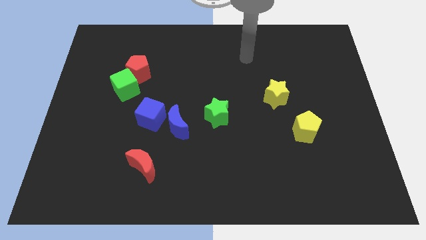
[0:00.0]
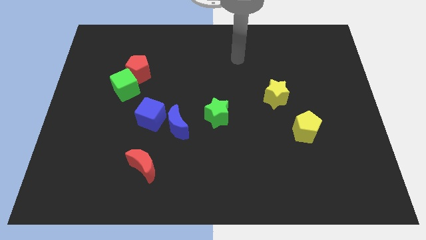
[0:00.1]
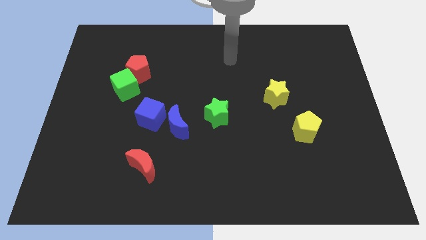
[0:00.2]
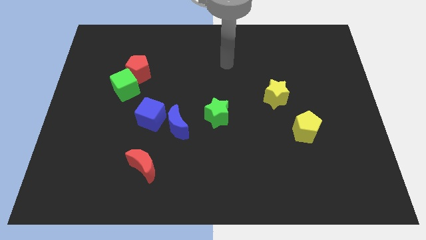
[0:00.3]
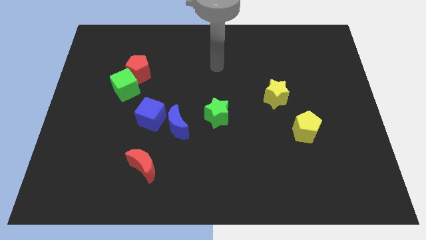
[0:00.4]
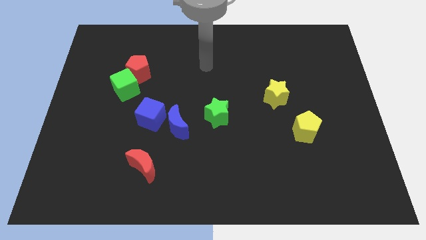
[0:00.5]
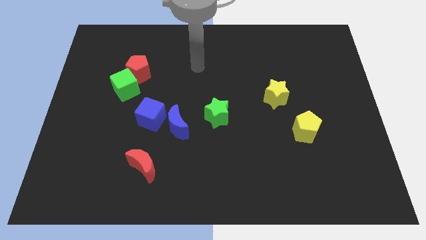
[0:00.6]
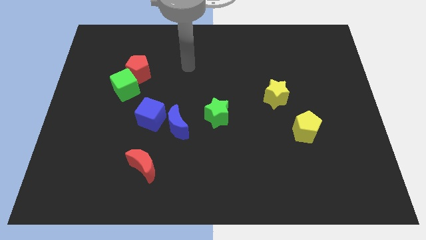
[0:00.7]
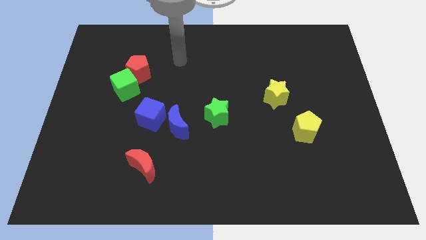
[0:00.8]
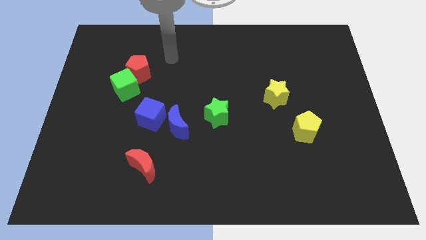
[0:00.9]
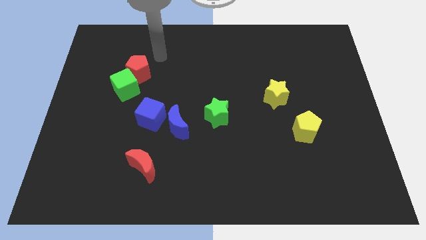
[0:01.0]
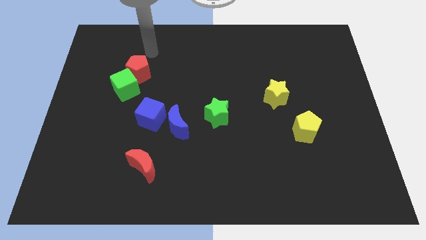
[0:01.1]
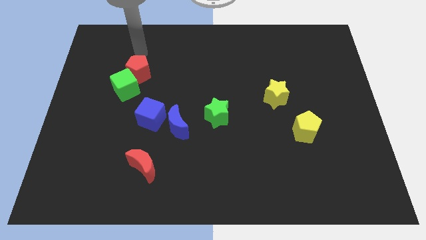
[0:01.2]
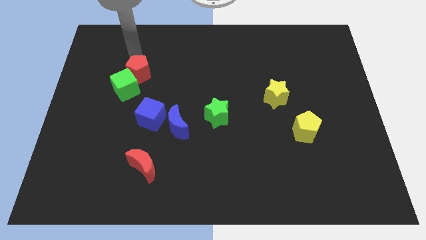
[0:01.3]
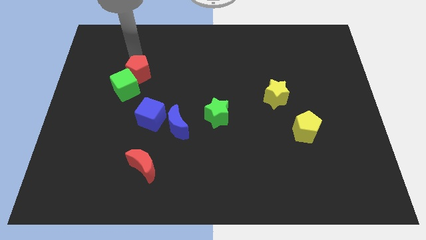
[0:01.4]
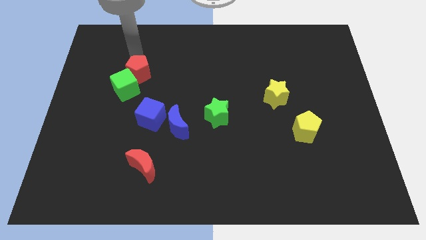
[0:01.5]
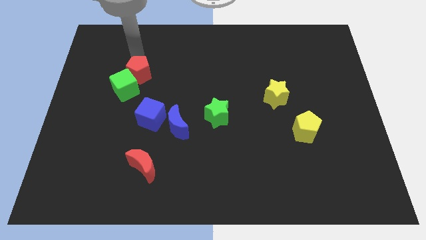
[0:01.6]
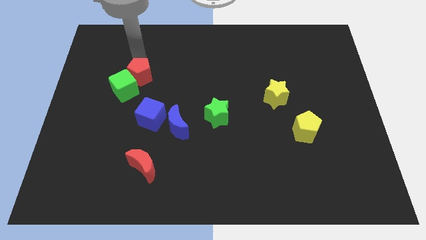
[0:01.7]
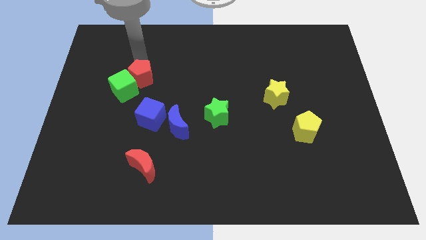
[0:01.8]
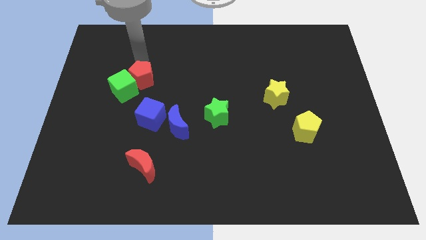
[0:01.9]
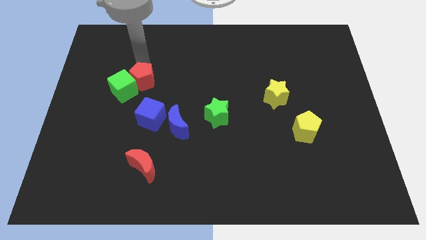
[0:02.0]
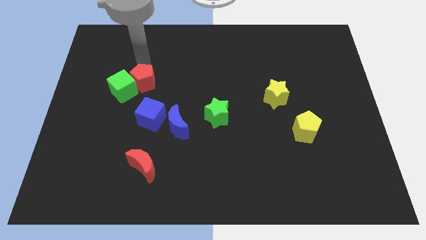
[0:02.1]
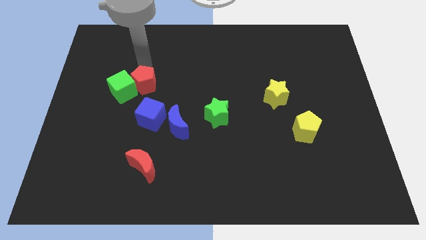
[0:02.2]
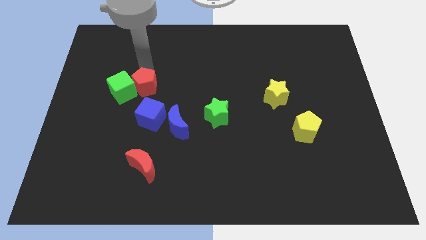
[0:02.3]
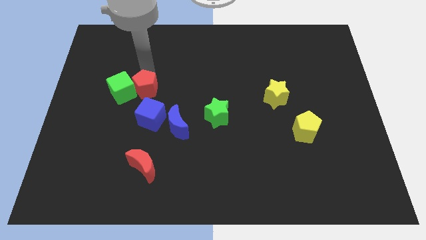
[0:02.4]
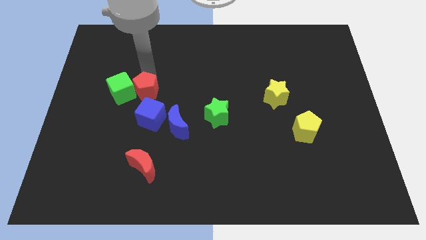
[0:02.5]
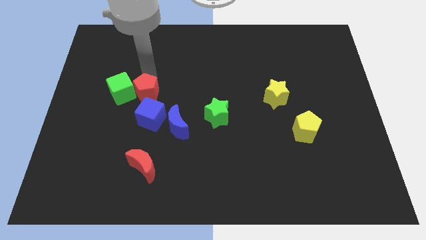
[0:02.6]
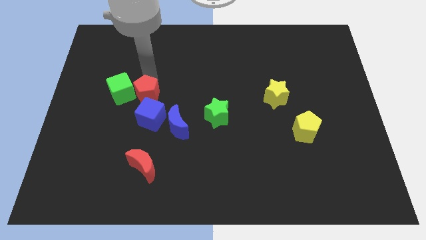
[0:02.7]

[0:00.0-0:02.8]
slightly slide the red pentagon downwards

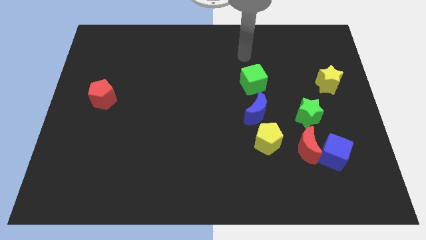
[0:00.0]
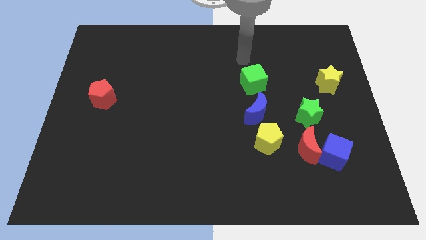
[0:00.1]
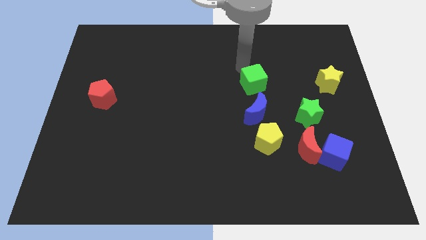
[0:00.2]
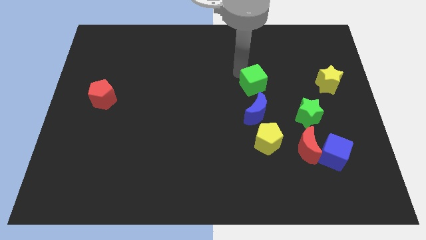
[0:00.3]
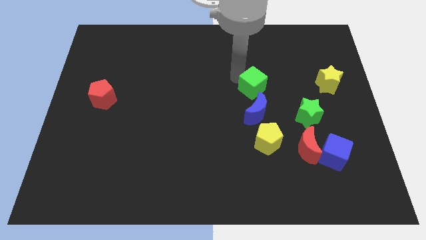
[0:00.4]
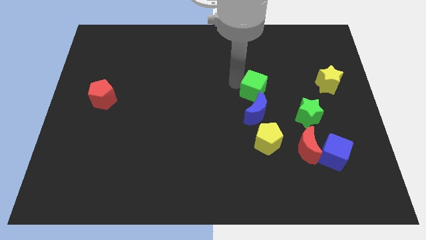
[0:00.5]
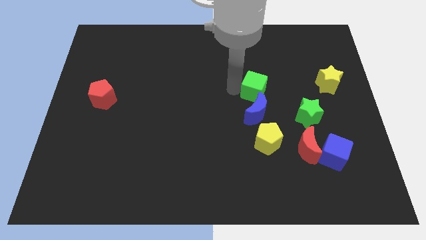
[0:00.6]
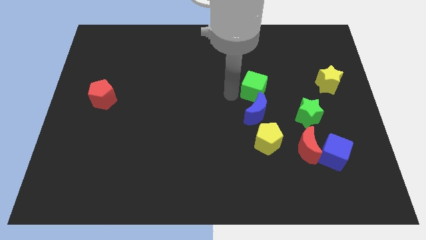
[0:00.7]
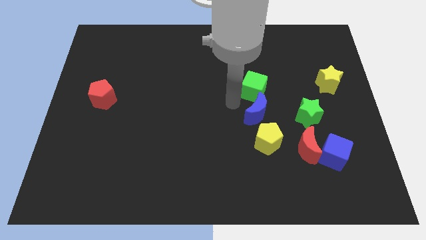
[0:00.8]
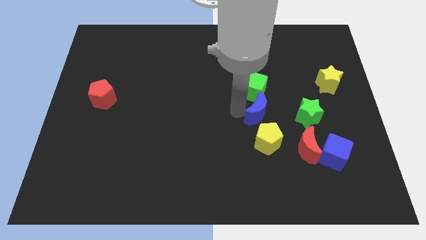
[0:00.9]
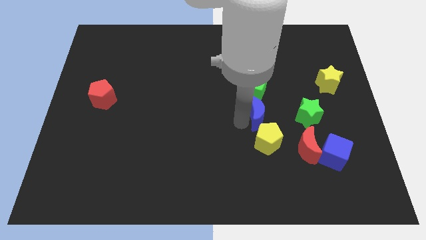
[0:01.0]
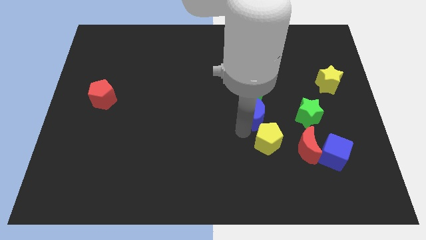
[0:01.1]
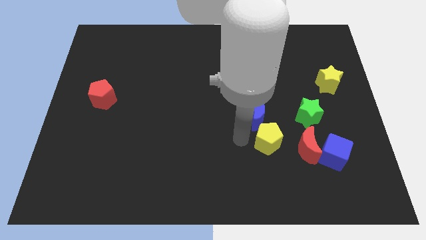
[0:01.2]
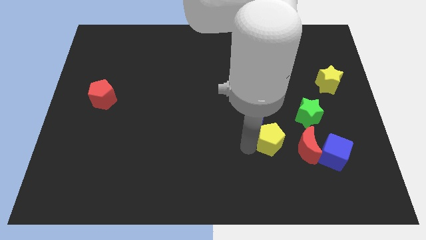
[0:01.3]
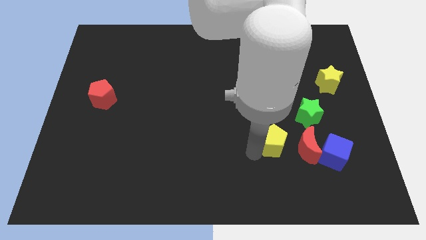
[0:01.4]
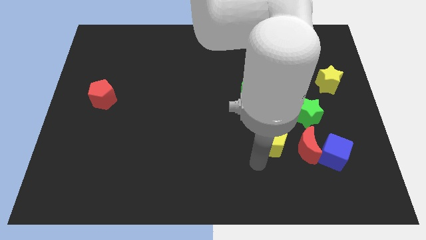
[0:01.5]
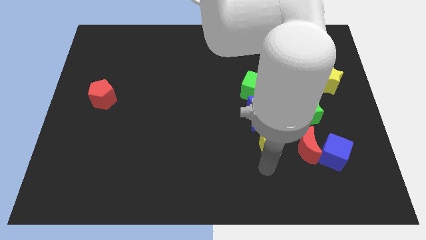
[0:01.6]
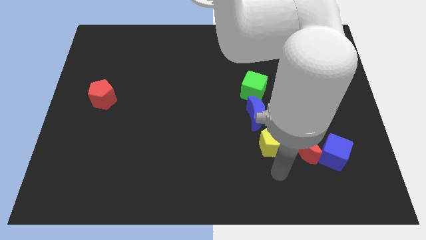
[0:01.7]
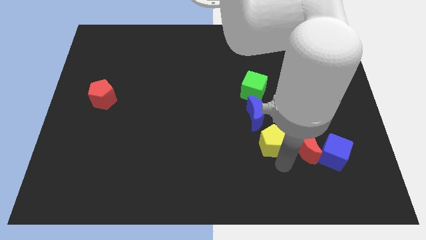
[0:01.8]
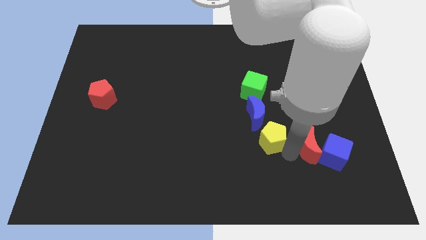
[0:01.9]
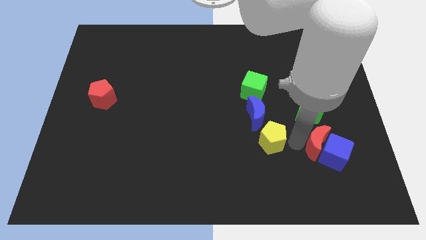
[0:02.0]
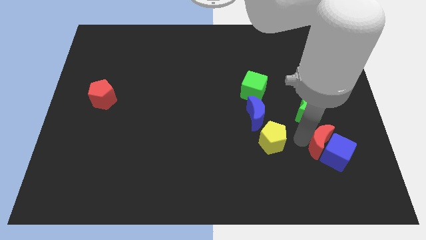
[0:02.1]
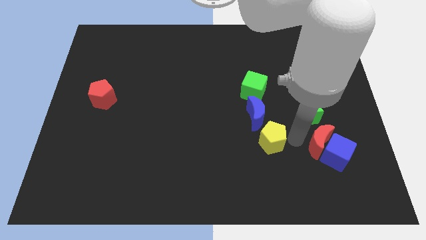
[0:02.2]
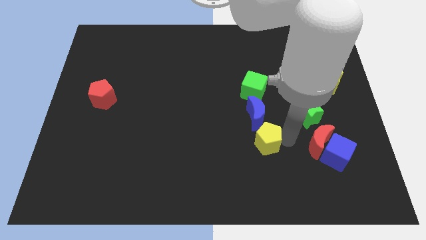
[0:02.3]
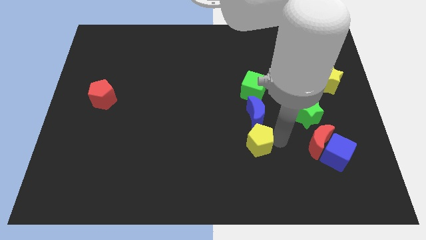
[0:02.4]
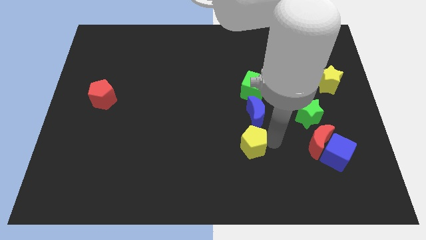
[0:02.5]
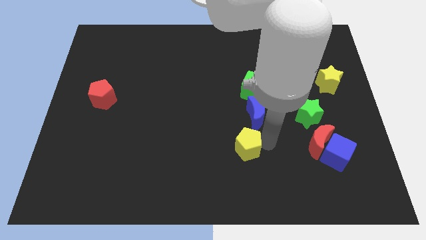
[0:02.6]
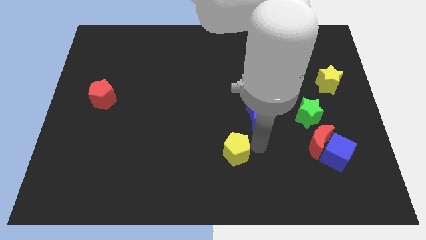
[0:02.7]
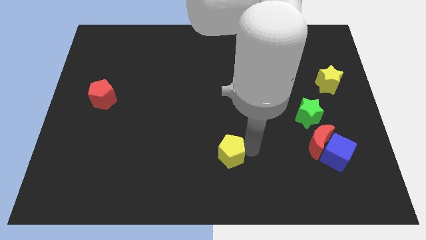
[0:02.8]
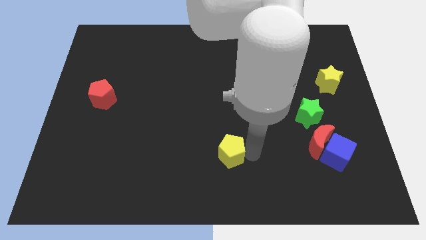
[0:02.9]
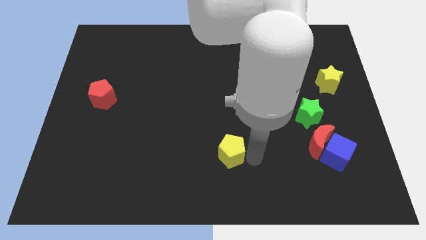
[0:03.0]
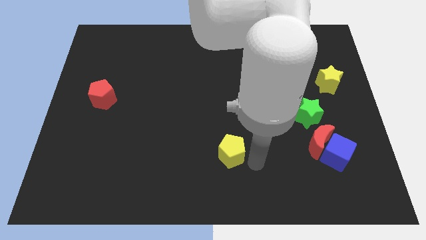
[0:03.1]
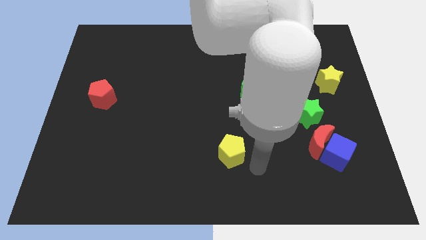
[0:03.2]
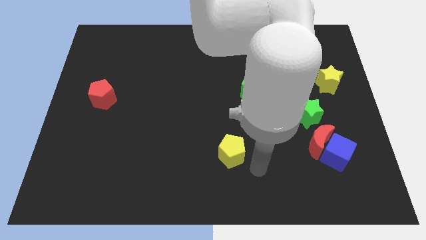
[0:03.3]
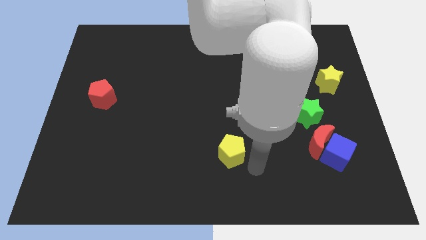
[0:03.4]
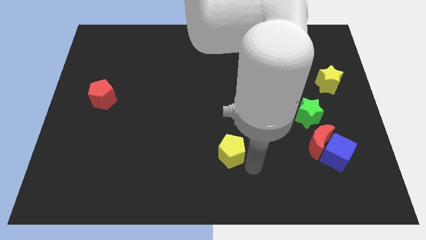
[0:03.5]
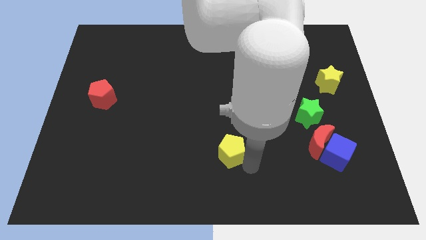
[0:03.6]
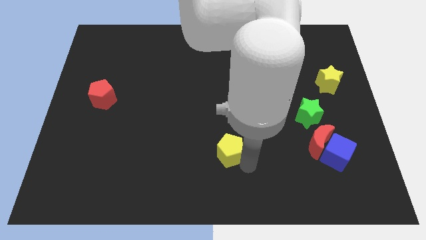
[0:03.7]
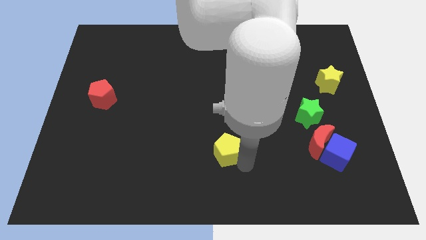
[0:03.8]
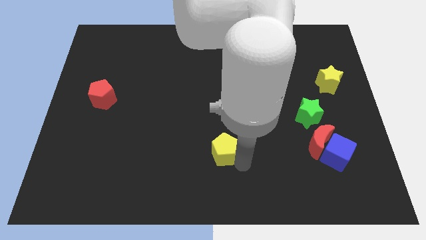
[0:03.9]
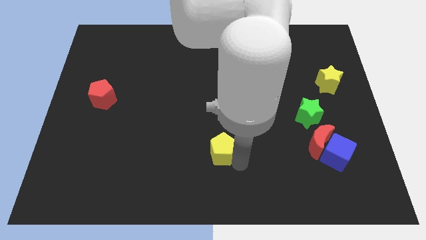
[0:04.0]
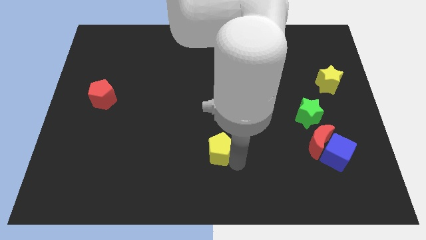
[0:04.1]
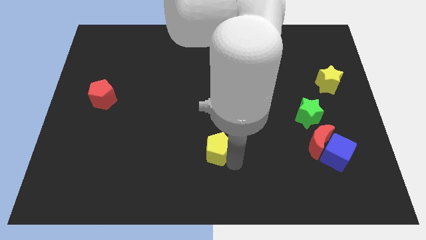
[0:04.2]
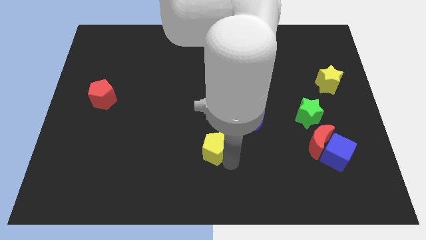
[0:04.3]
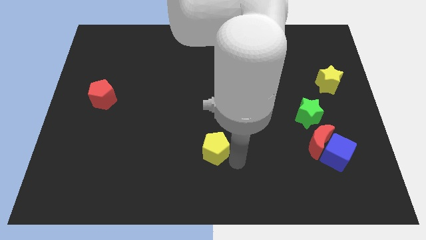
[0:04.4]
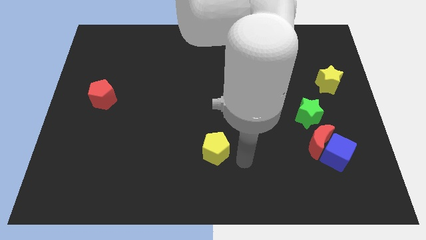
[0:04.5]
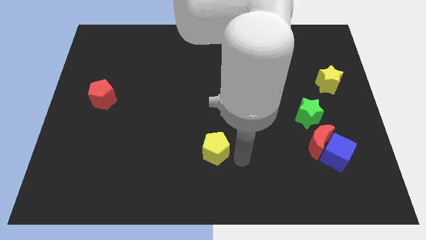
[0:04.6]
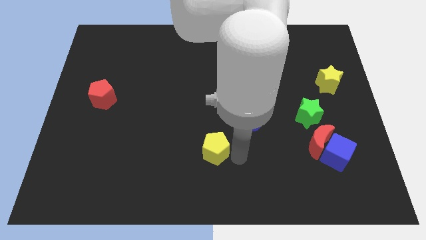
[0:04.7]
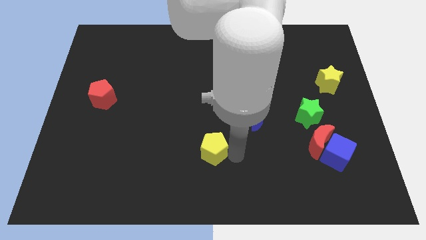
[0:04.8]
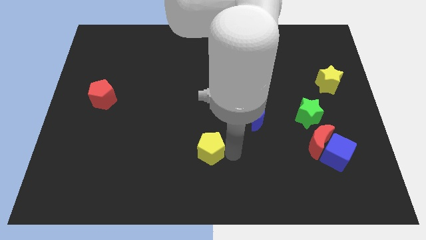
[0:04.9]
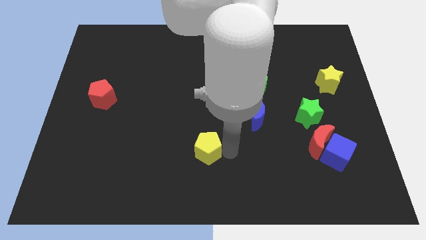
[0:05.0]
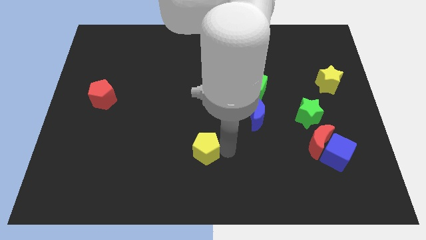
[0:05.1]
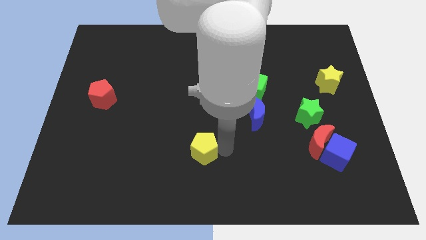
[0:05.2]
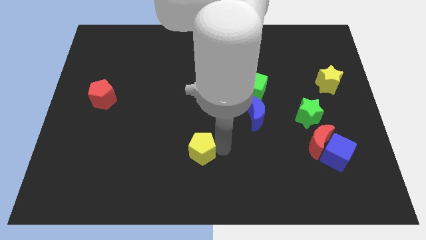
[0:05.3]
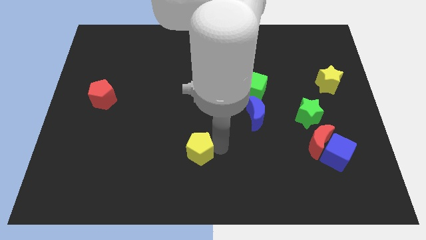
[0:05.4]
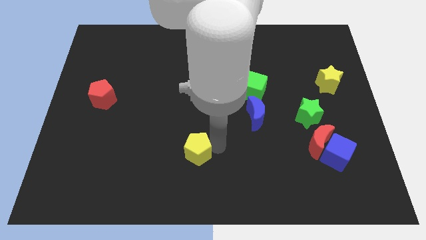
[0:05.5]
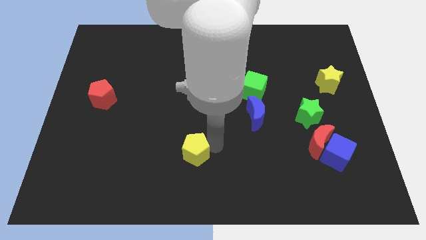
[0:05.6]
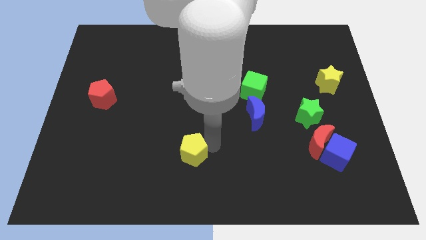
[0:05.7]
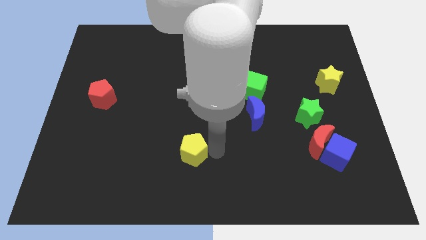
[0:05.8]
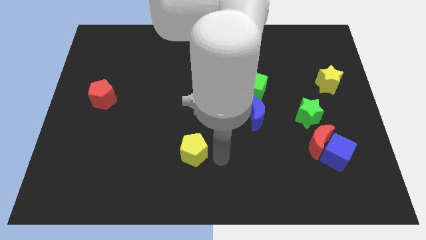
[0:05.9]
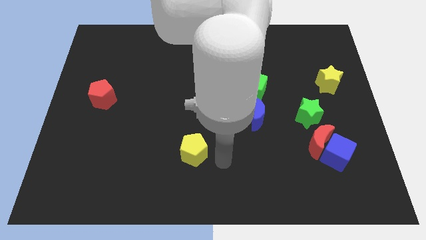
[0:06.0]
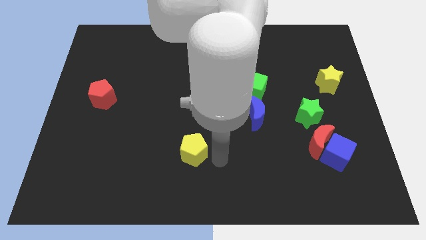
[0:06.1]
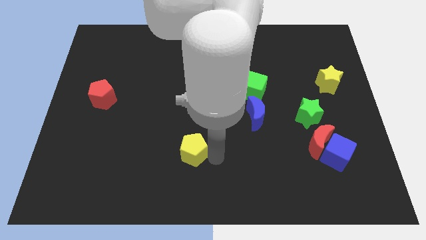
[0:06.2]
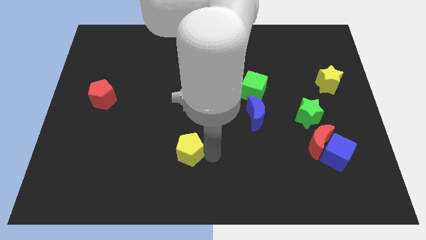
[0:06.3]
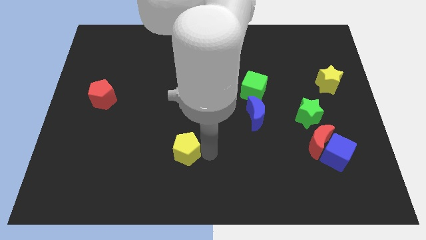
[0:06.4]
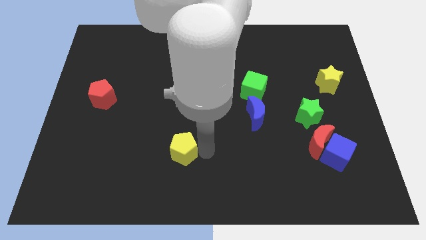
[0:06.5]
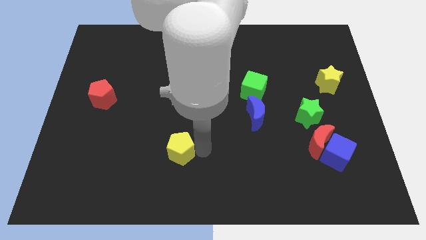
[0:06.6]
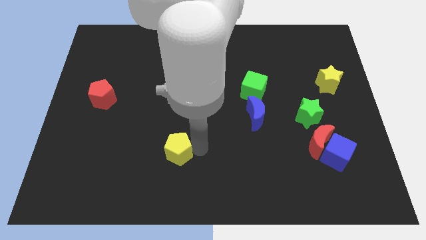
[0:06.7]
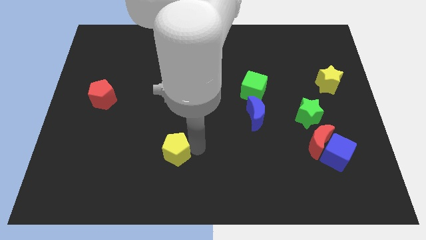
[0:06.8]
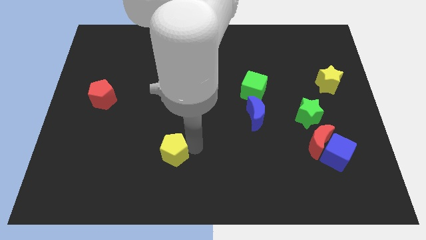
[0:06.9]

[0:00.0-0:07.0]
slide the yellow pentagon left
